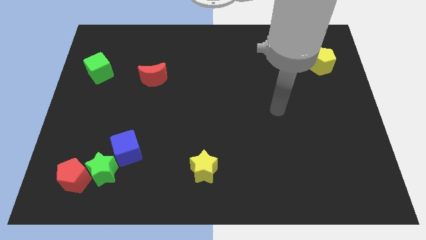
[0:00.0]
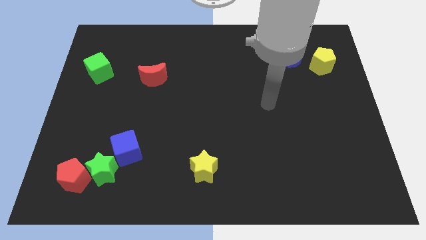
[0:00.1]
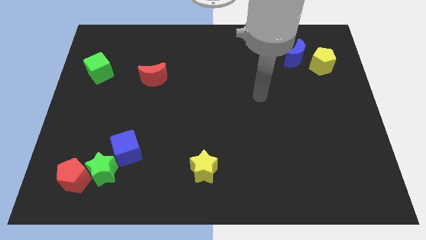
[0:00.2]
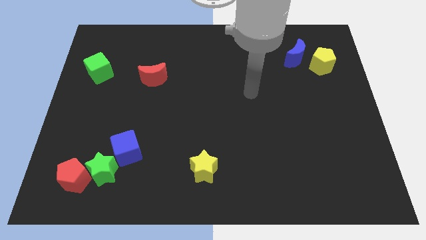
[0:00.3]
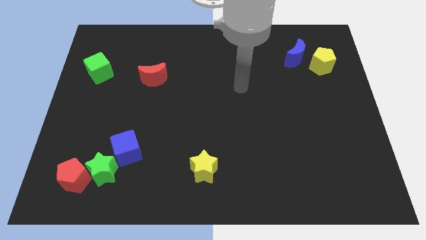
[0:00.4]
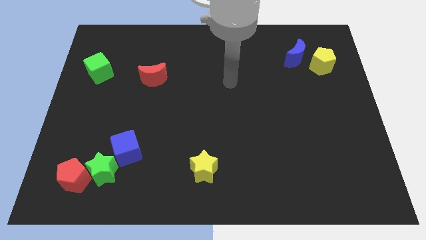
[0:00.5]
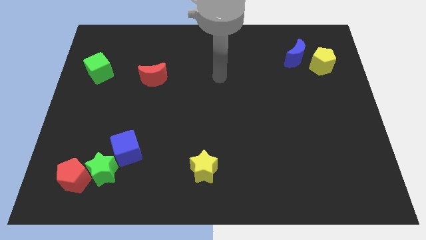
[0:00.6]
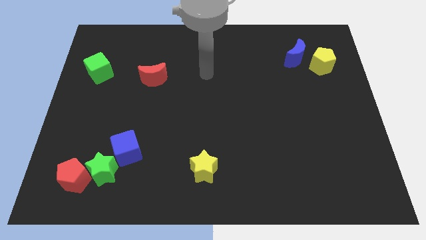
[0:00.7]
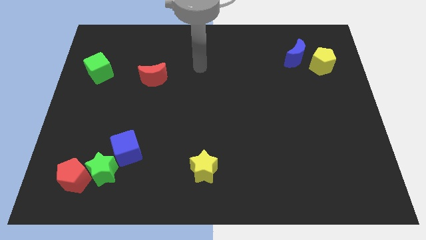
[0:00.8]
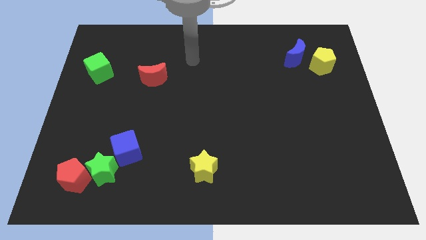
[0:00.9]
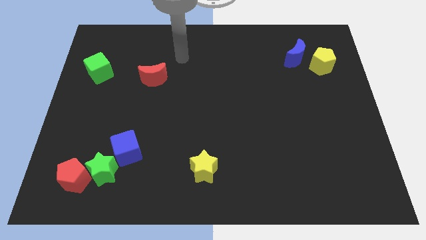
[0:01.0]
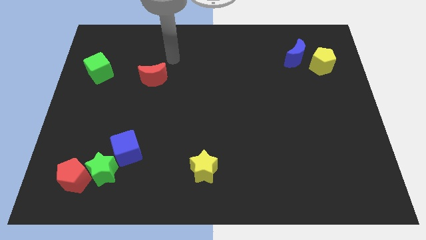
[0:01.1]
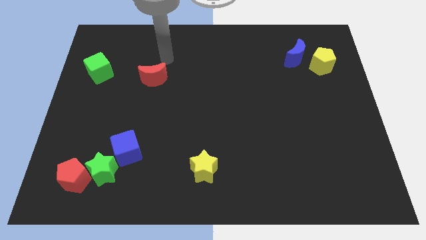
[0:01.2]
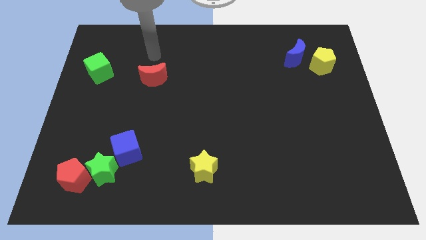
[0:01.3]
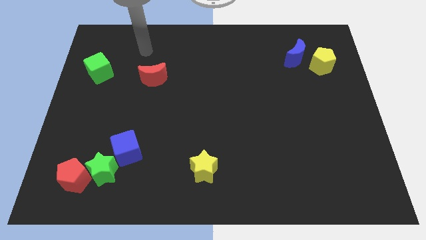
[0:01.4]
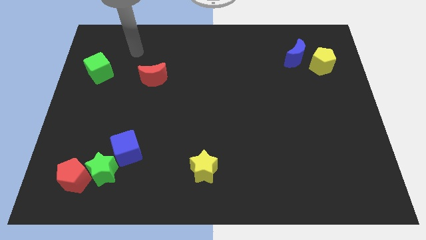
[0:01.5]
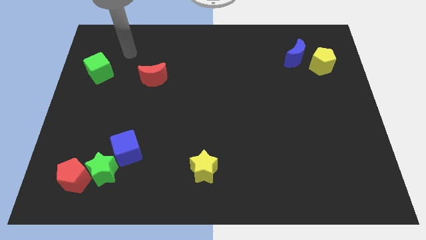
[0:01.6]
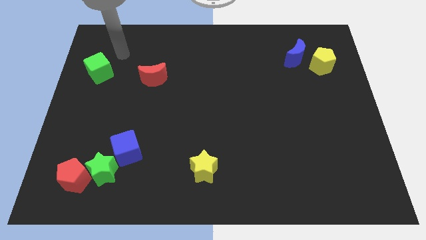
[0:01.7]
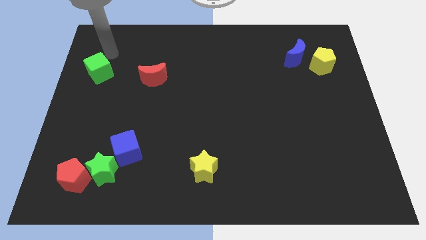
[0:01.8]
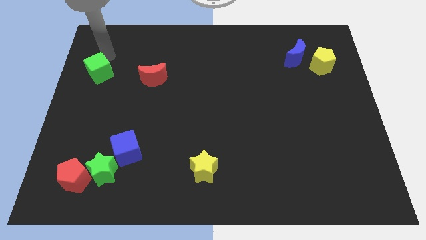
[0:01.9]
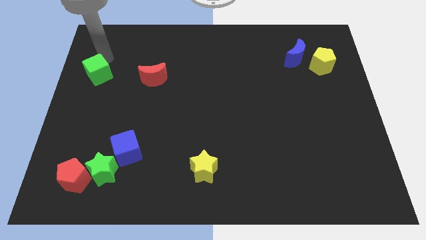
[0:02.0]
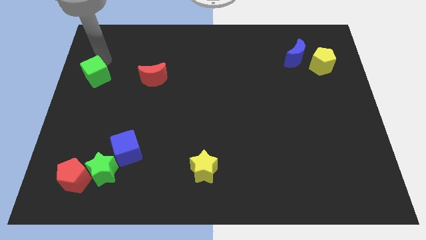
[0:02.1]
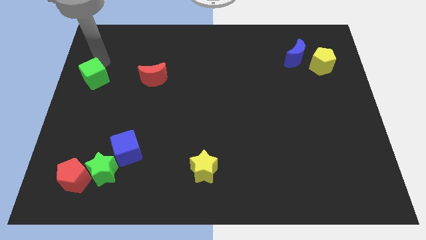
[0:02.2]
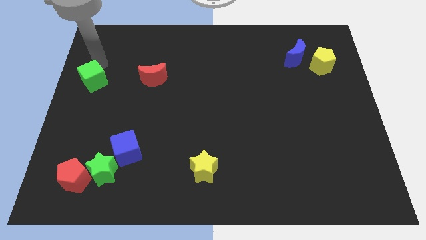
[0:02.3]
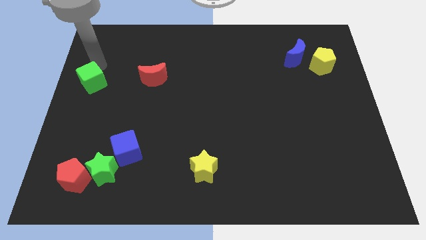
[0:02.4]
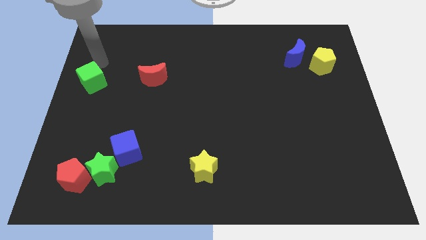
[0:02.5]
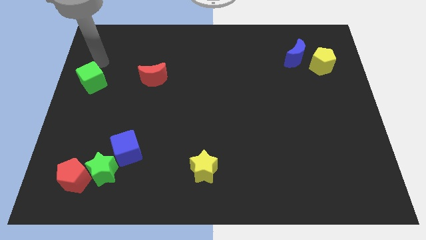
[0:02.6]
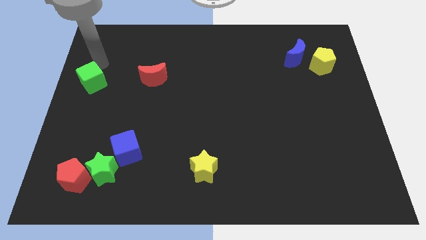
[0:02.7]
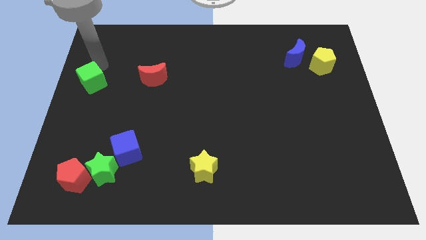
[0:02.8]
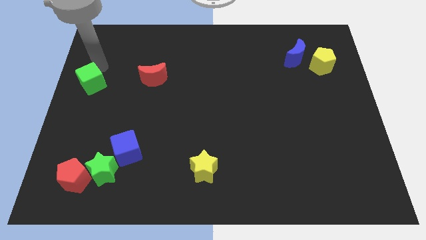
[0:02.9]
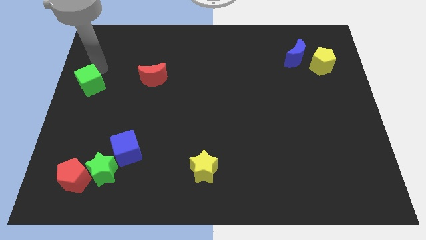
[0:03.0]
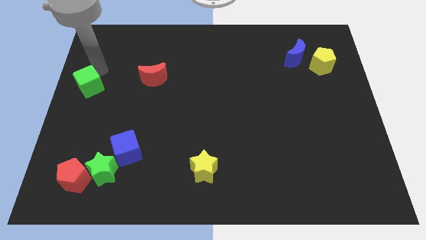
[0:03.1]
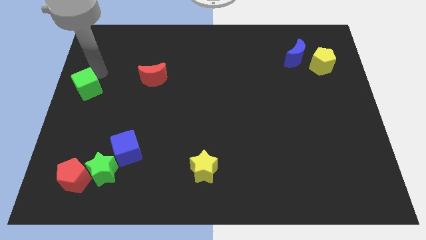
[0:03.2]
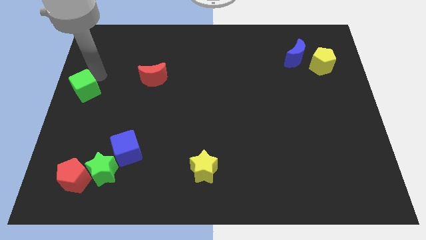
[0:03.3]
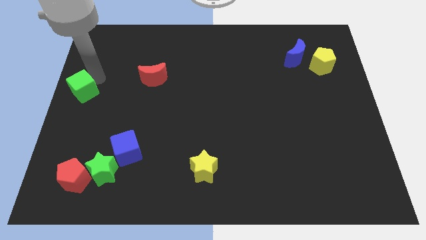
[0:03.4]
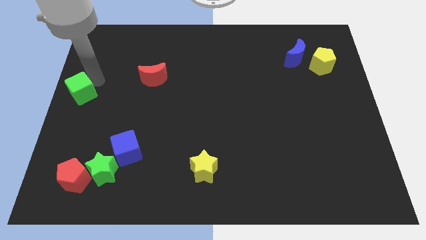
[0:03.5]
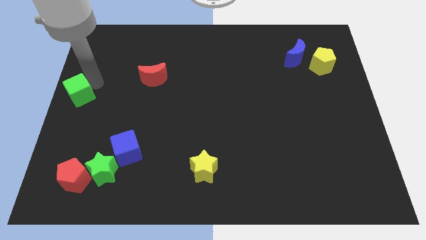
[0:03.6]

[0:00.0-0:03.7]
slide the green cube down a little bit

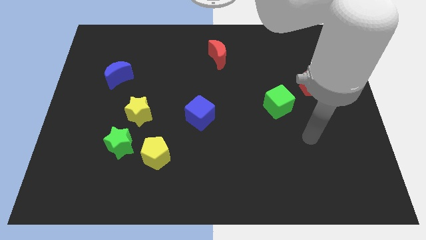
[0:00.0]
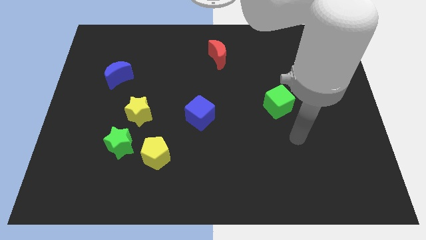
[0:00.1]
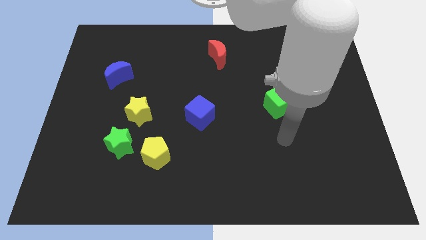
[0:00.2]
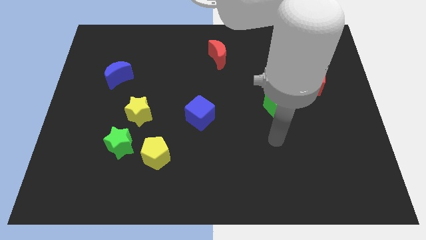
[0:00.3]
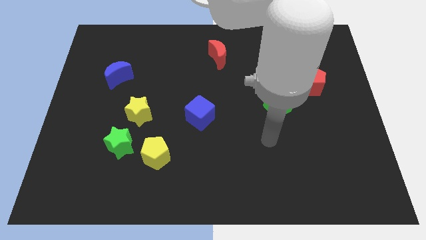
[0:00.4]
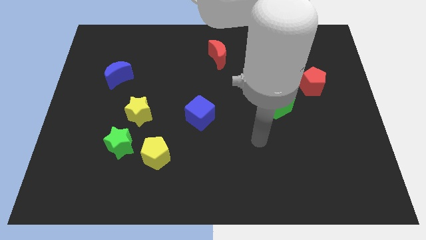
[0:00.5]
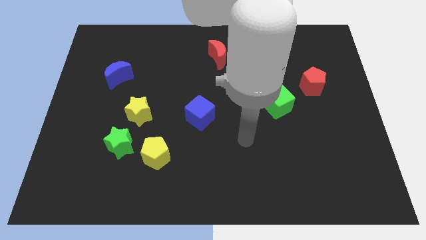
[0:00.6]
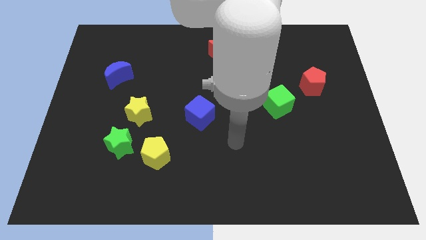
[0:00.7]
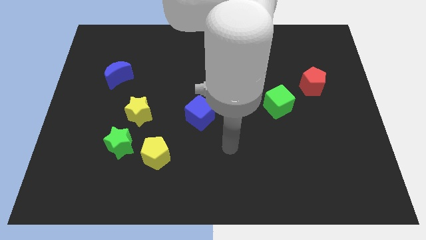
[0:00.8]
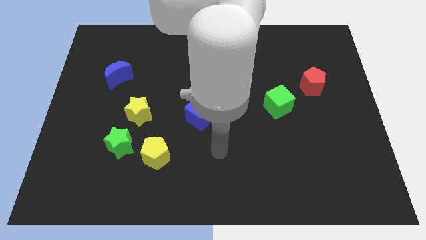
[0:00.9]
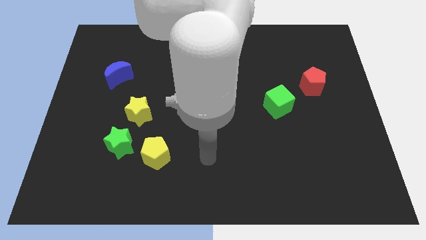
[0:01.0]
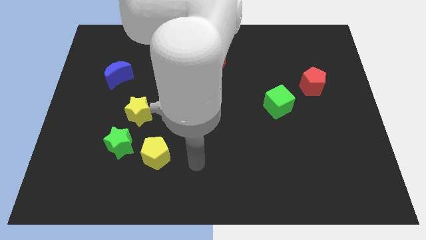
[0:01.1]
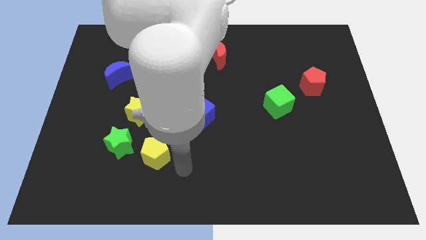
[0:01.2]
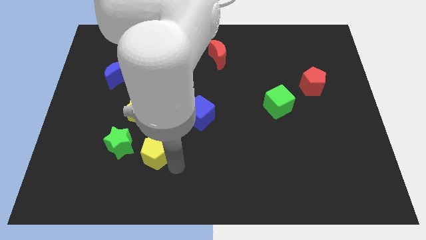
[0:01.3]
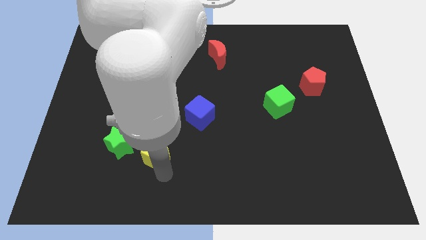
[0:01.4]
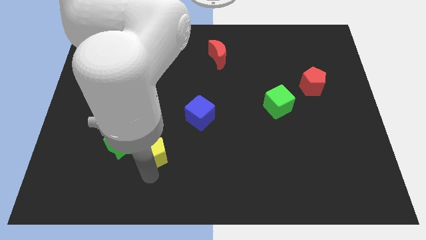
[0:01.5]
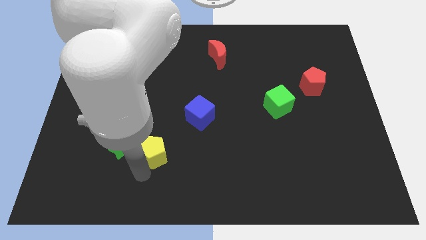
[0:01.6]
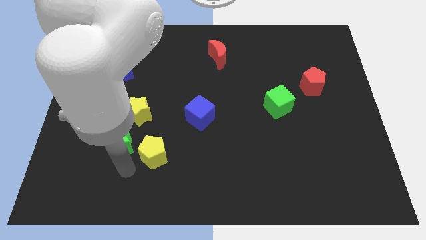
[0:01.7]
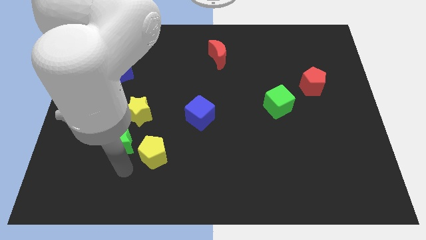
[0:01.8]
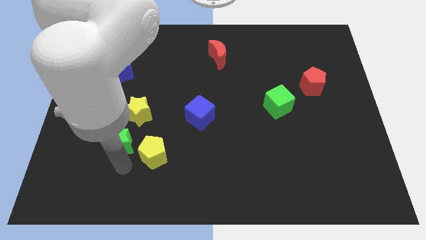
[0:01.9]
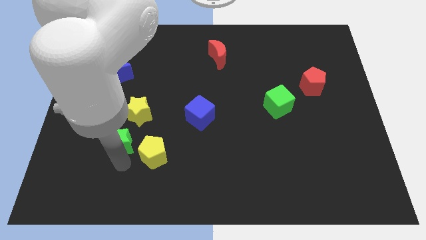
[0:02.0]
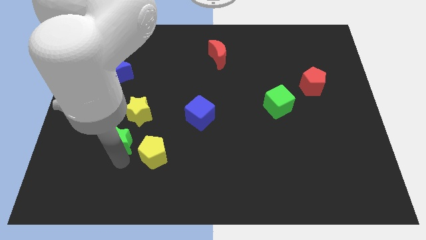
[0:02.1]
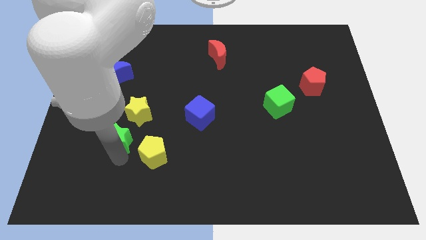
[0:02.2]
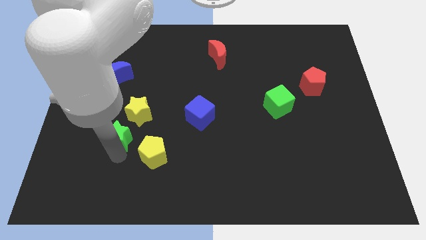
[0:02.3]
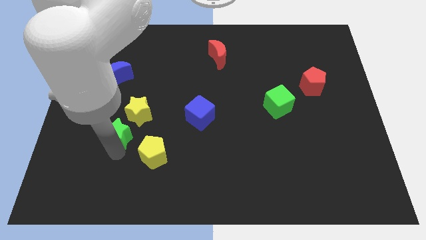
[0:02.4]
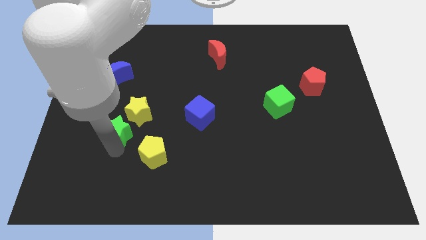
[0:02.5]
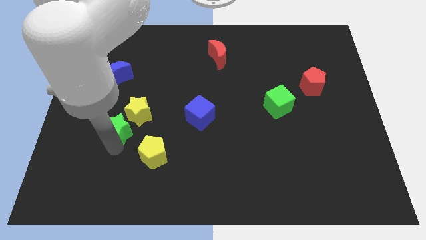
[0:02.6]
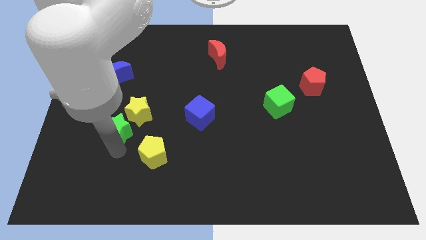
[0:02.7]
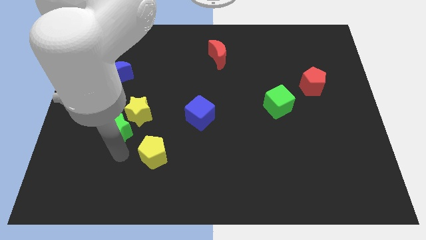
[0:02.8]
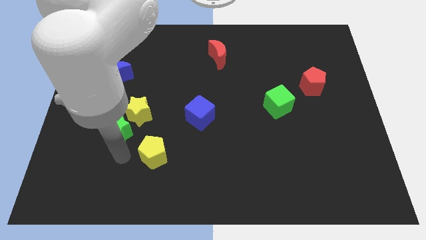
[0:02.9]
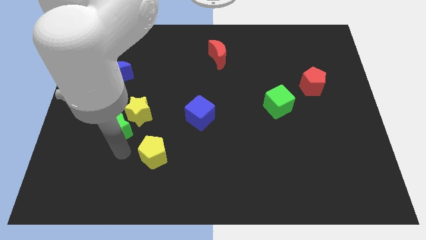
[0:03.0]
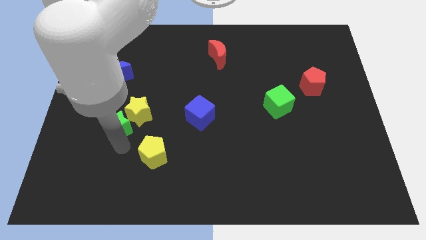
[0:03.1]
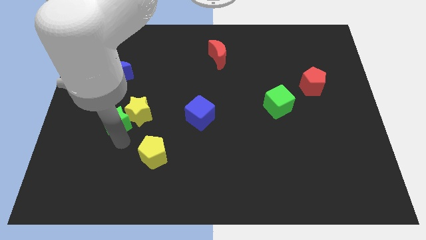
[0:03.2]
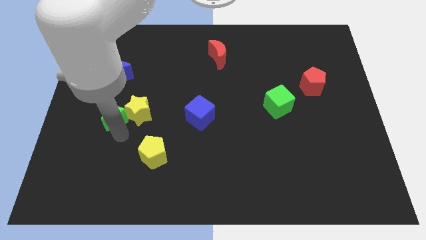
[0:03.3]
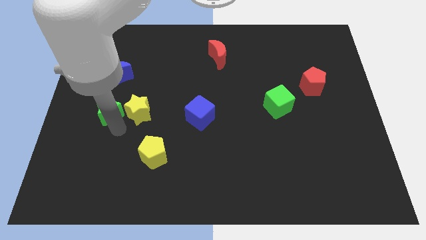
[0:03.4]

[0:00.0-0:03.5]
push the green star a bit up

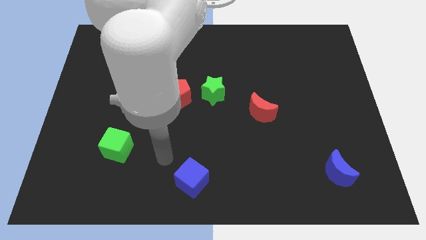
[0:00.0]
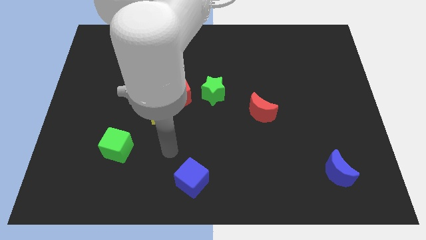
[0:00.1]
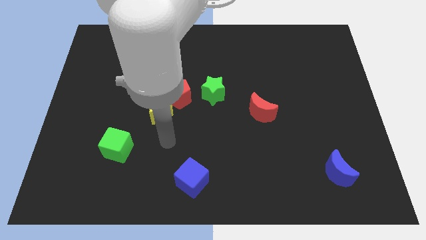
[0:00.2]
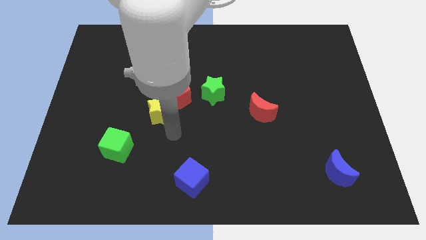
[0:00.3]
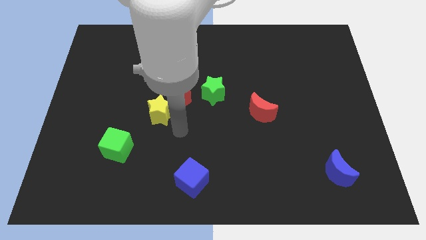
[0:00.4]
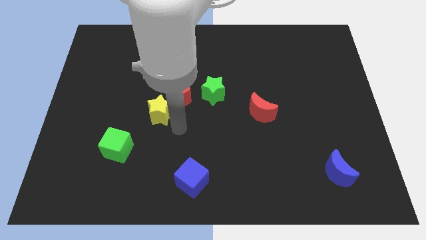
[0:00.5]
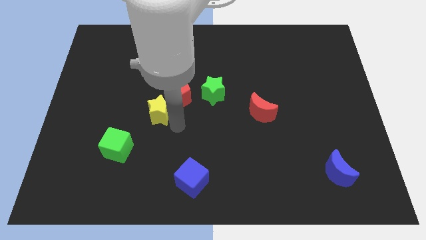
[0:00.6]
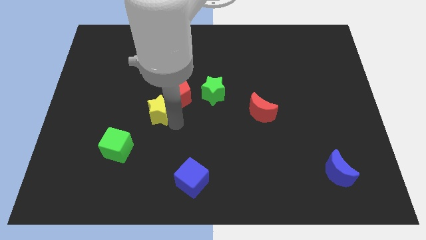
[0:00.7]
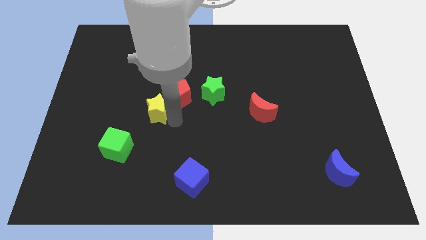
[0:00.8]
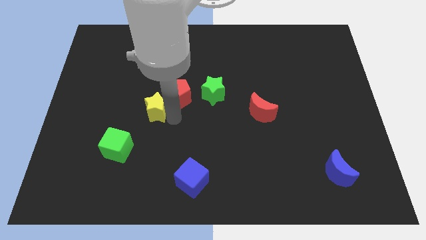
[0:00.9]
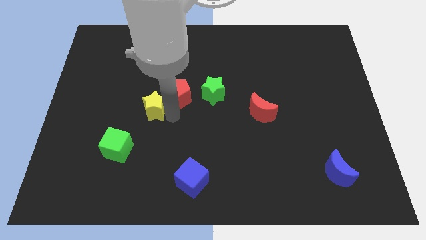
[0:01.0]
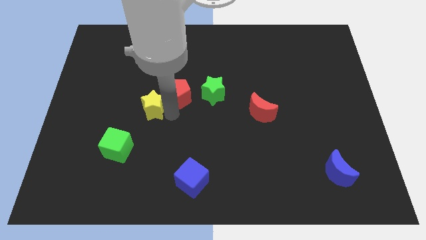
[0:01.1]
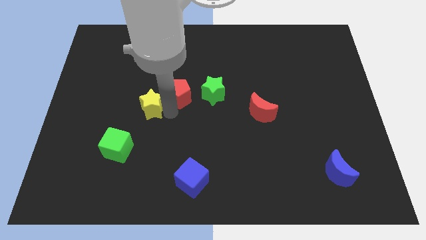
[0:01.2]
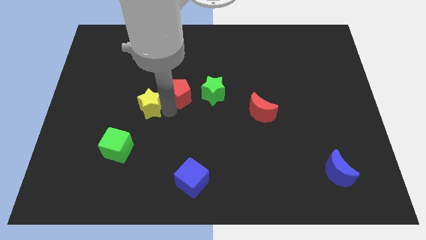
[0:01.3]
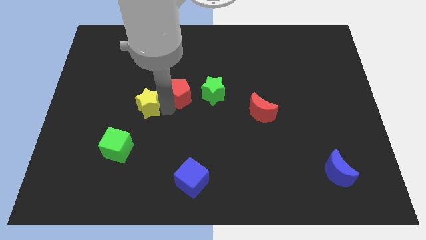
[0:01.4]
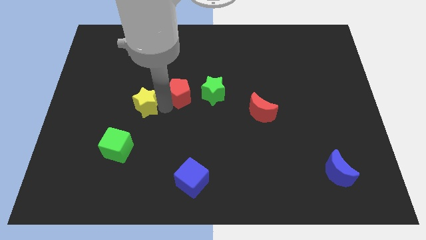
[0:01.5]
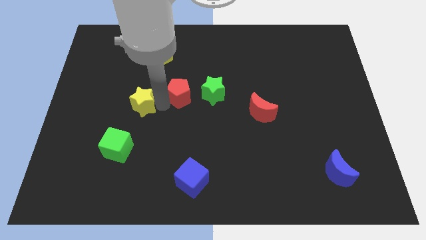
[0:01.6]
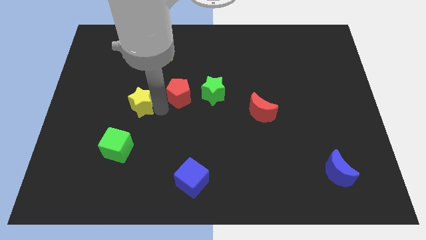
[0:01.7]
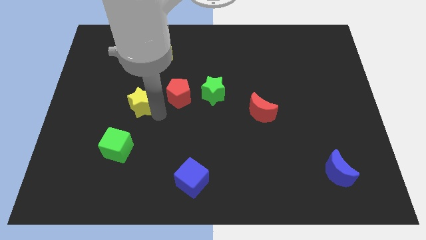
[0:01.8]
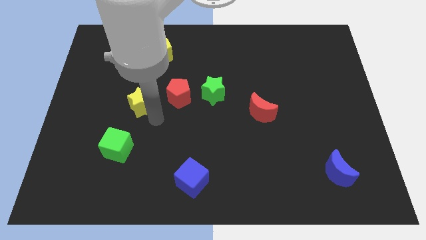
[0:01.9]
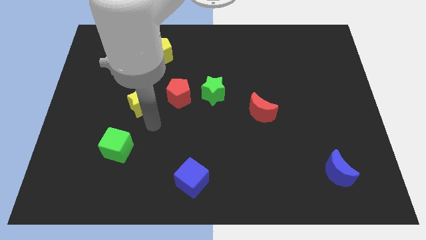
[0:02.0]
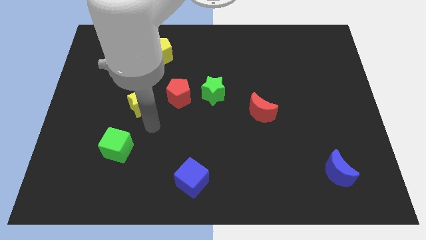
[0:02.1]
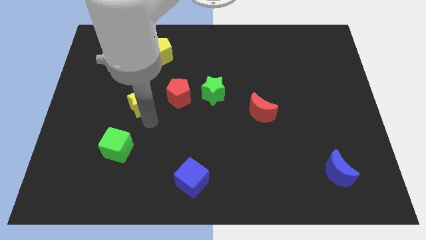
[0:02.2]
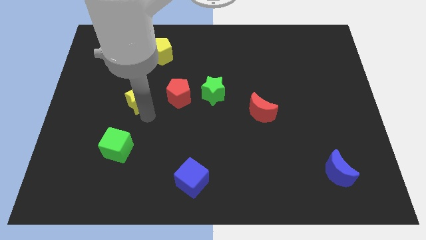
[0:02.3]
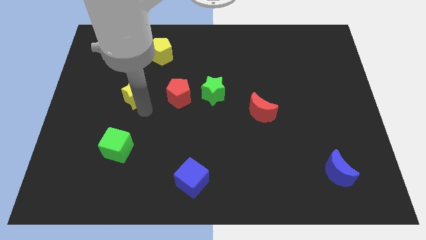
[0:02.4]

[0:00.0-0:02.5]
push the yellow star slightly upwards and left
